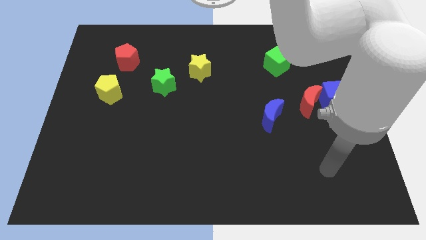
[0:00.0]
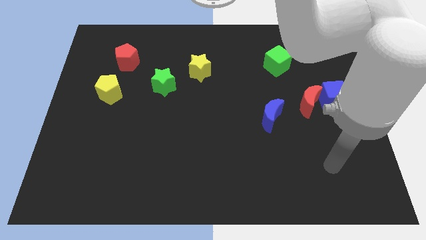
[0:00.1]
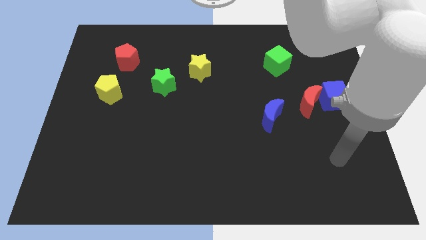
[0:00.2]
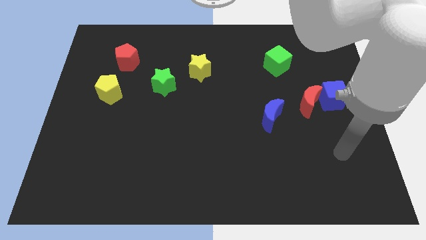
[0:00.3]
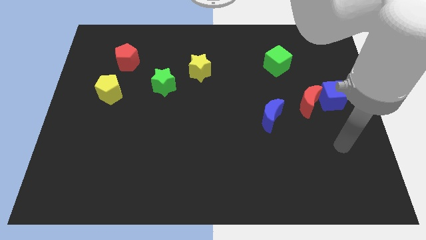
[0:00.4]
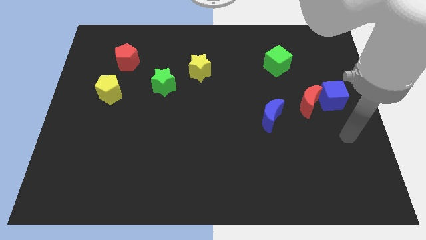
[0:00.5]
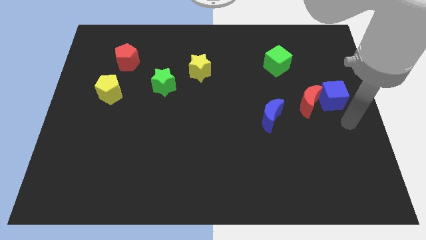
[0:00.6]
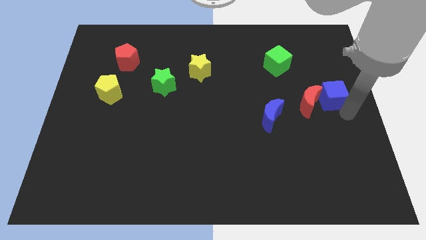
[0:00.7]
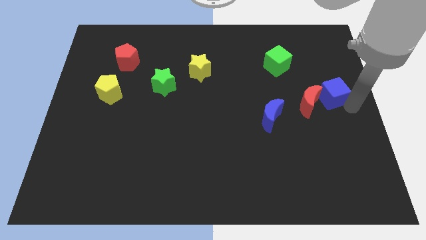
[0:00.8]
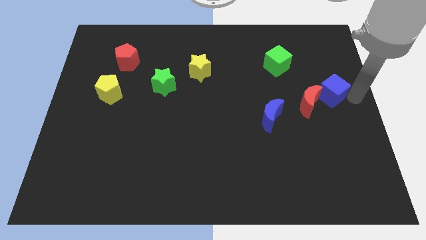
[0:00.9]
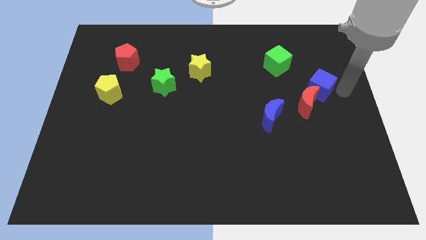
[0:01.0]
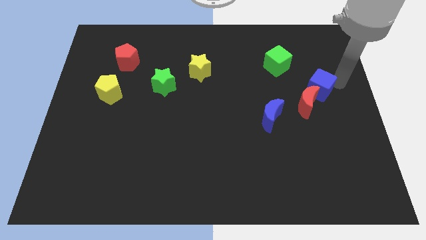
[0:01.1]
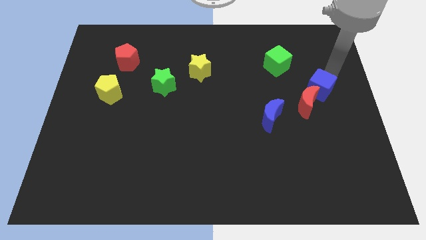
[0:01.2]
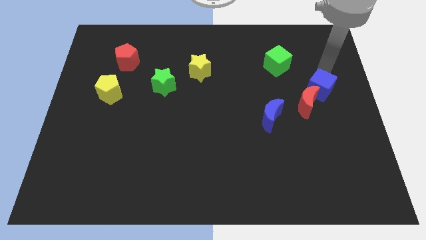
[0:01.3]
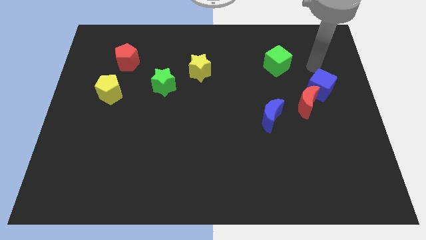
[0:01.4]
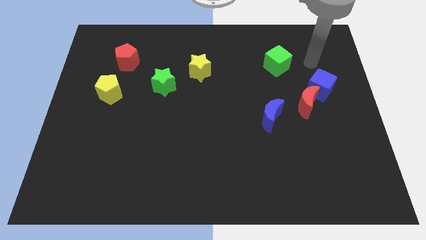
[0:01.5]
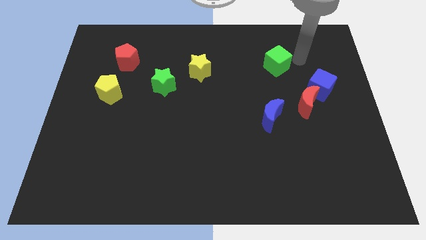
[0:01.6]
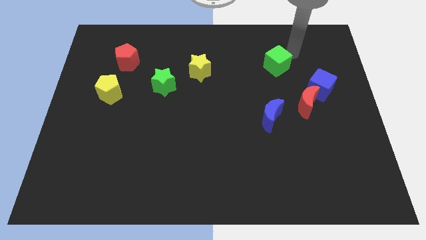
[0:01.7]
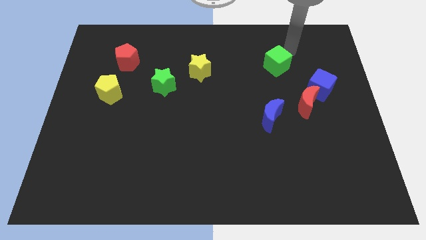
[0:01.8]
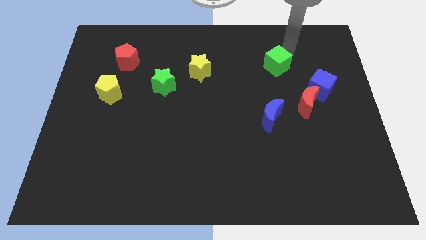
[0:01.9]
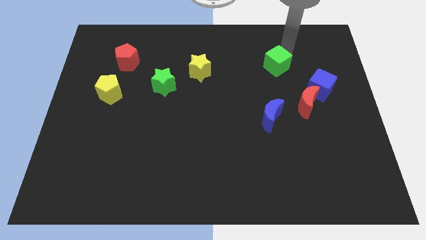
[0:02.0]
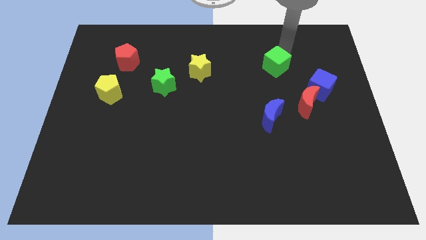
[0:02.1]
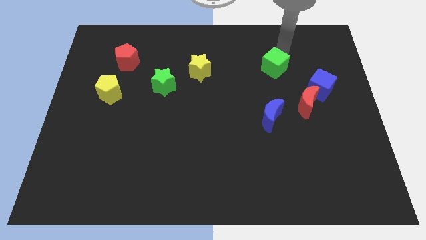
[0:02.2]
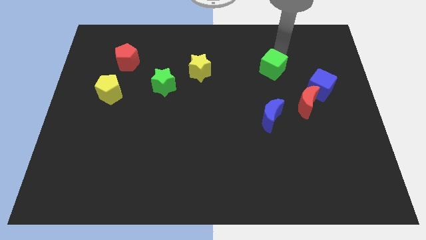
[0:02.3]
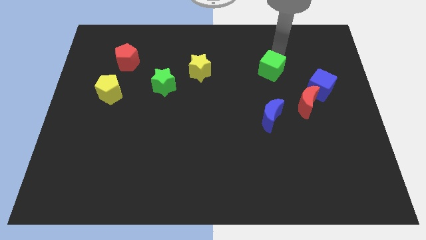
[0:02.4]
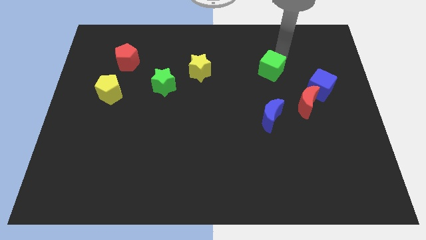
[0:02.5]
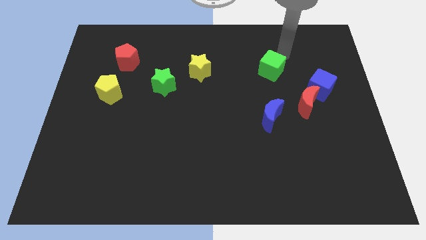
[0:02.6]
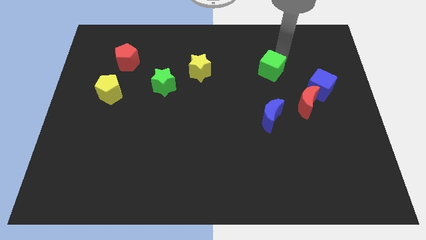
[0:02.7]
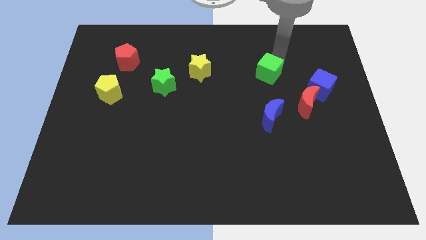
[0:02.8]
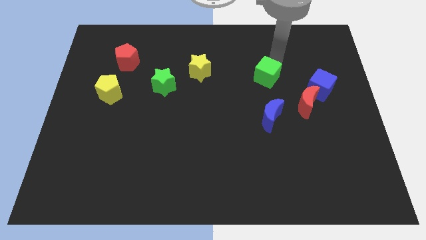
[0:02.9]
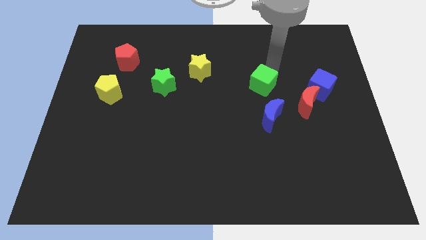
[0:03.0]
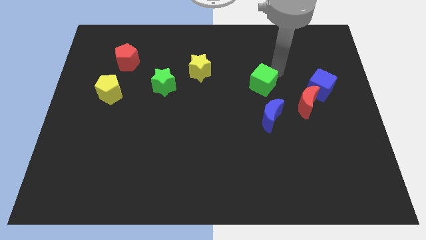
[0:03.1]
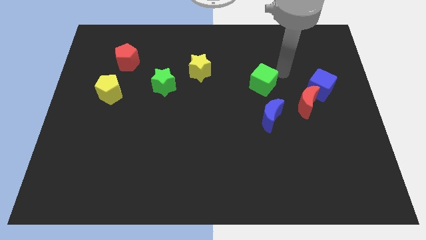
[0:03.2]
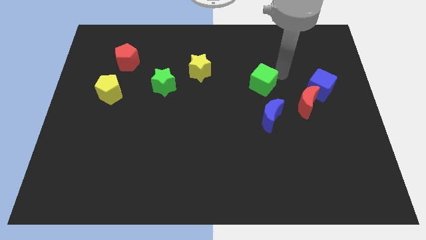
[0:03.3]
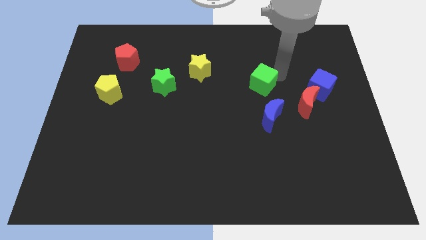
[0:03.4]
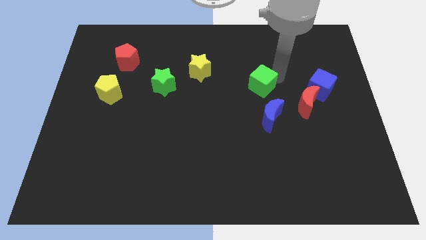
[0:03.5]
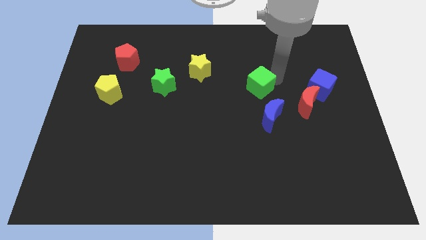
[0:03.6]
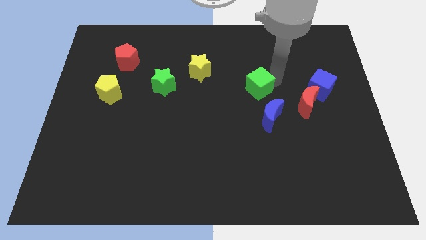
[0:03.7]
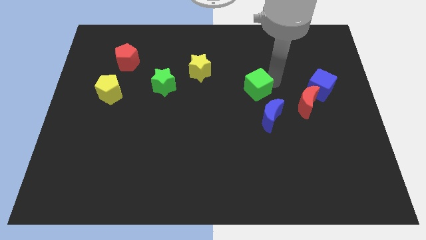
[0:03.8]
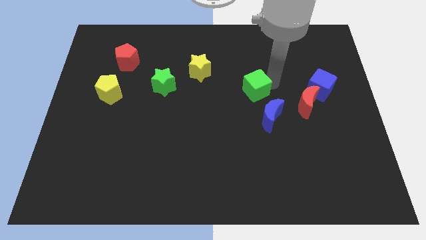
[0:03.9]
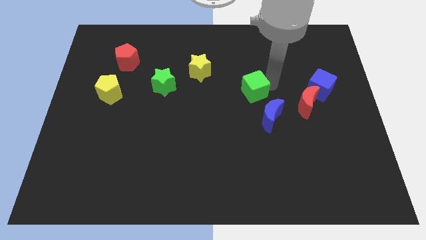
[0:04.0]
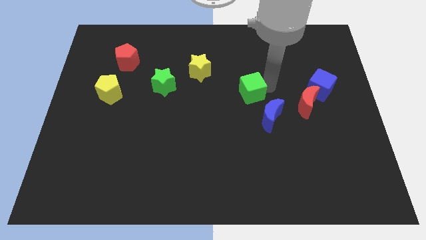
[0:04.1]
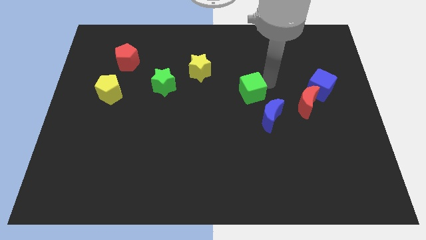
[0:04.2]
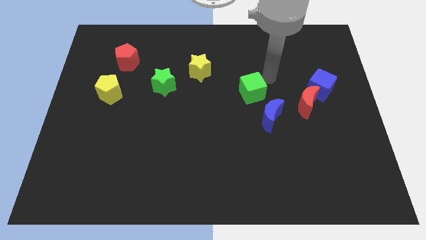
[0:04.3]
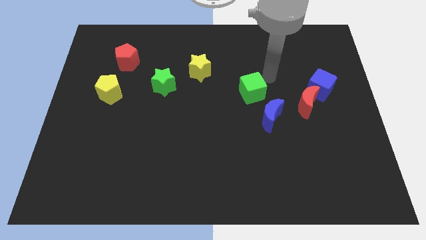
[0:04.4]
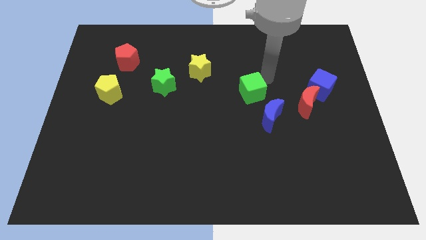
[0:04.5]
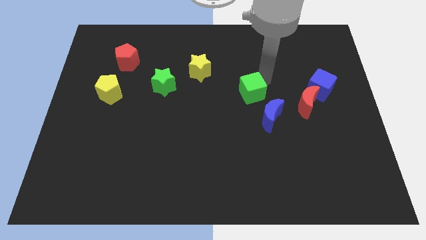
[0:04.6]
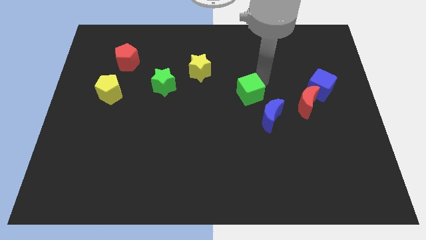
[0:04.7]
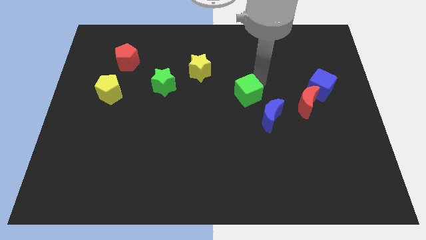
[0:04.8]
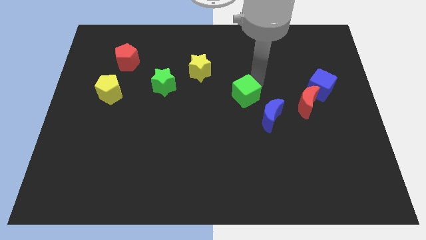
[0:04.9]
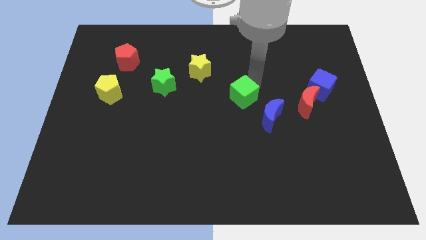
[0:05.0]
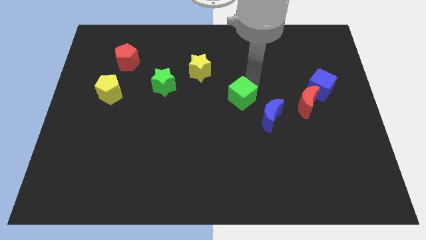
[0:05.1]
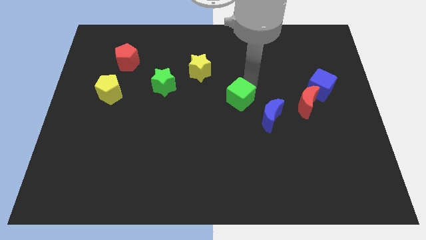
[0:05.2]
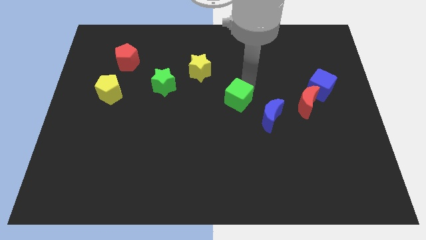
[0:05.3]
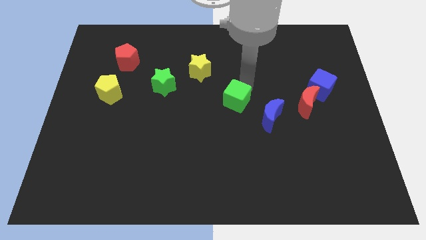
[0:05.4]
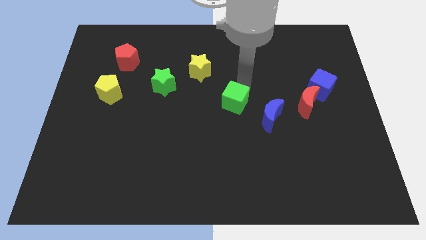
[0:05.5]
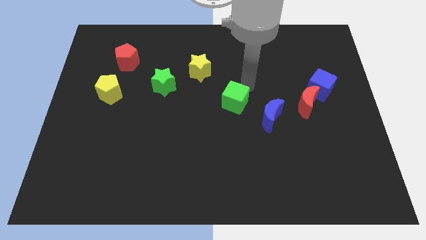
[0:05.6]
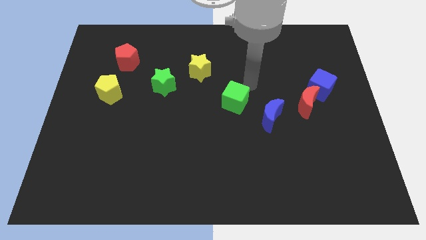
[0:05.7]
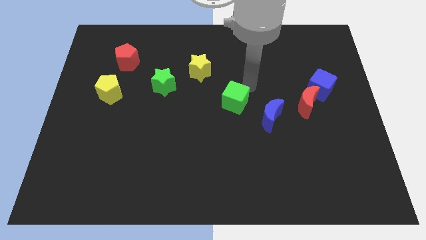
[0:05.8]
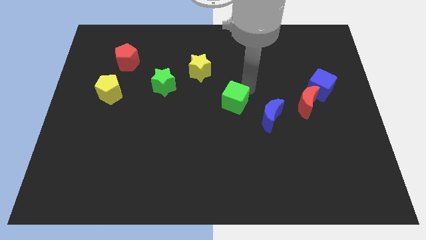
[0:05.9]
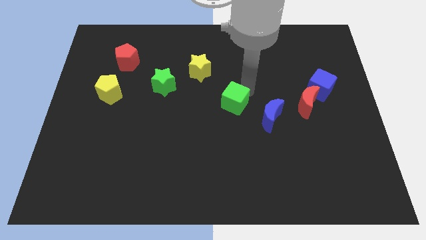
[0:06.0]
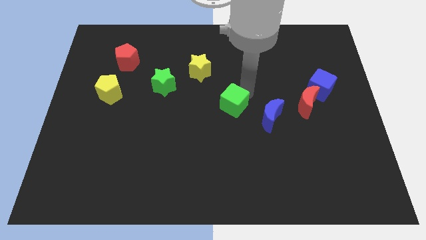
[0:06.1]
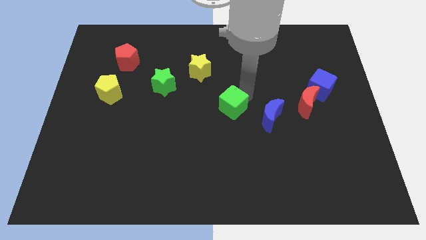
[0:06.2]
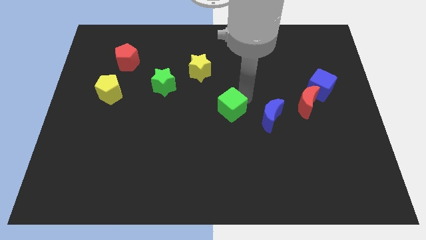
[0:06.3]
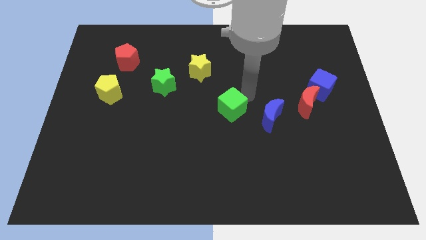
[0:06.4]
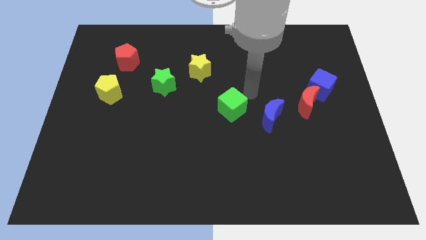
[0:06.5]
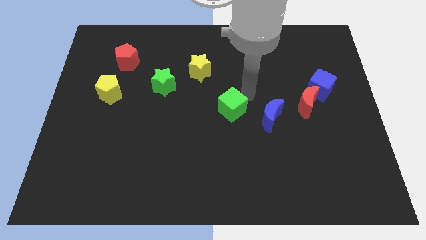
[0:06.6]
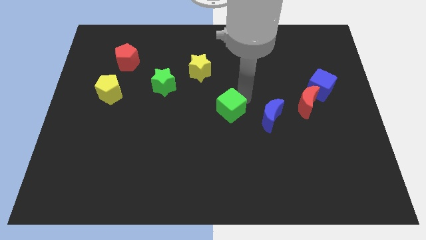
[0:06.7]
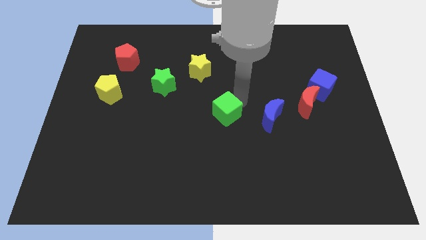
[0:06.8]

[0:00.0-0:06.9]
slide the green cube downwards and left diagonally

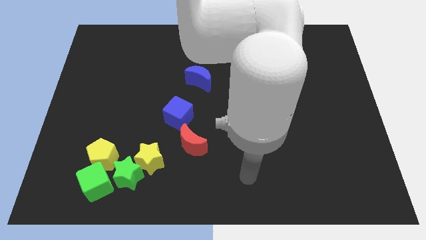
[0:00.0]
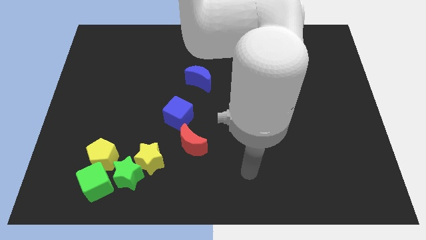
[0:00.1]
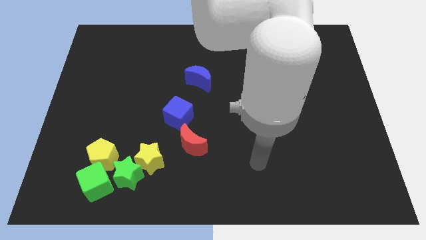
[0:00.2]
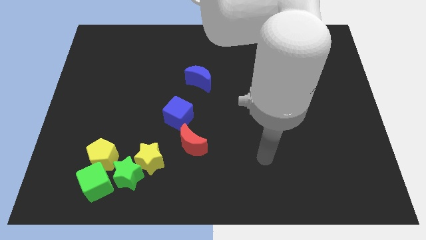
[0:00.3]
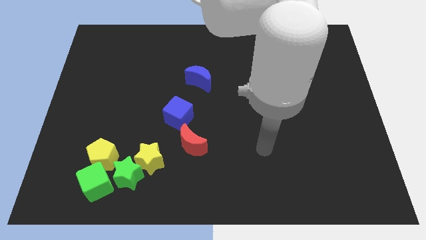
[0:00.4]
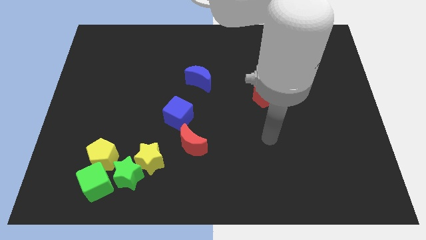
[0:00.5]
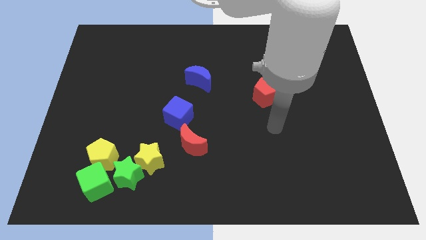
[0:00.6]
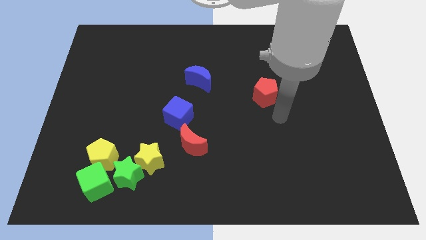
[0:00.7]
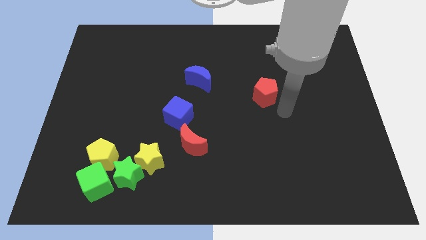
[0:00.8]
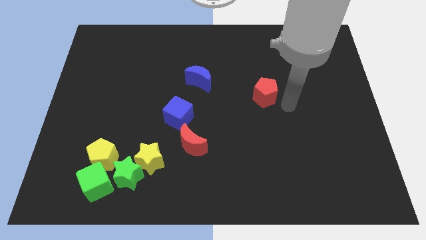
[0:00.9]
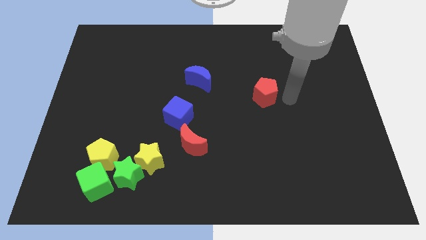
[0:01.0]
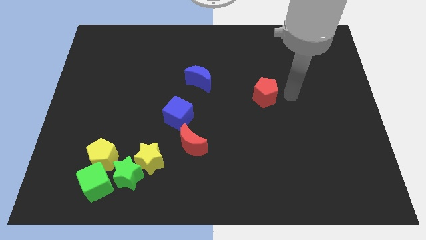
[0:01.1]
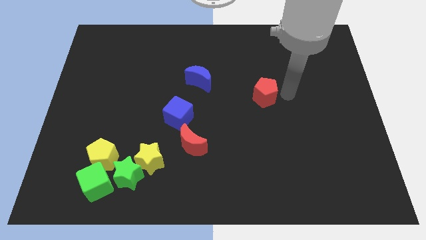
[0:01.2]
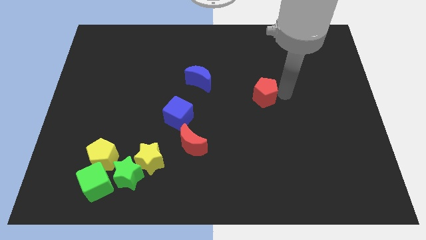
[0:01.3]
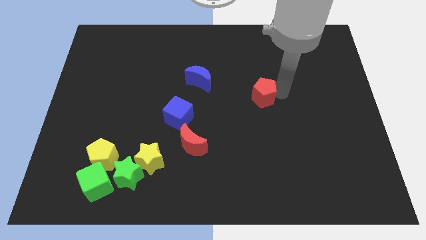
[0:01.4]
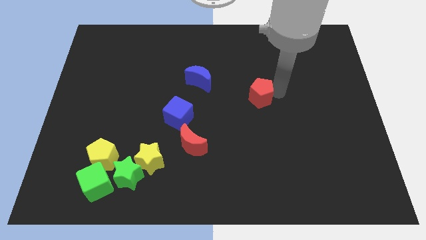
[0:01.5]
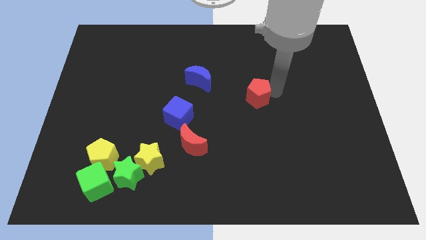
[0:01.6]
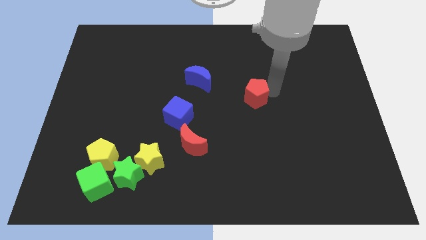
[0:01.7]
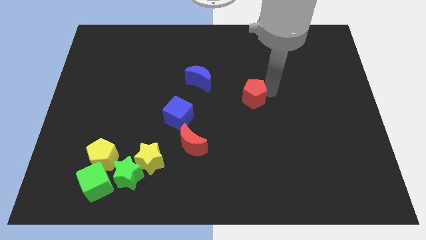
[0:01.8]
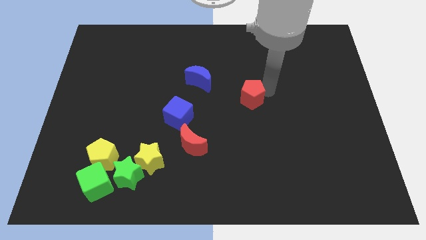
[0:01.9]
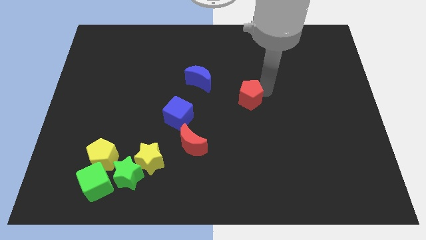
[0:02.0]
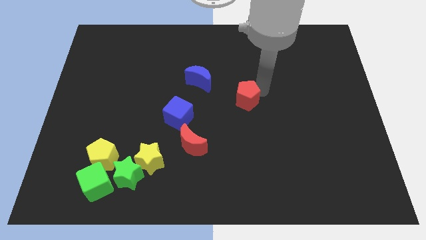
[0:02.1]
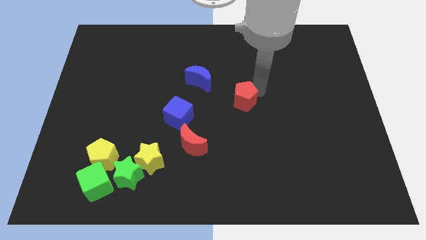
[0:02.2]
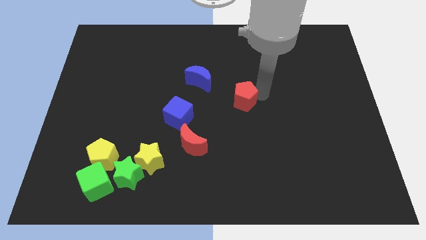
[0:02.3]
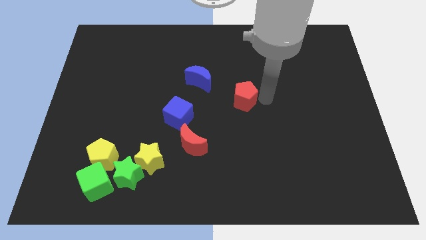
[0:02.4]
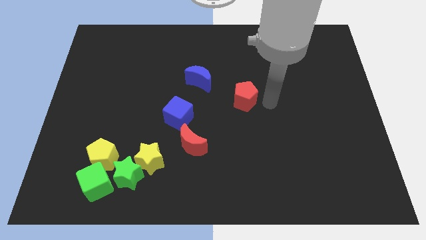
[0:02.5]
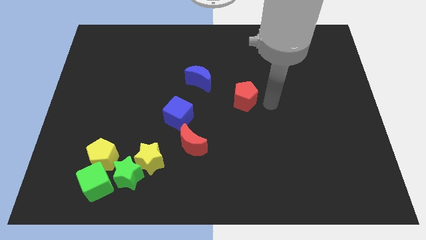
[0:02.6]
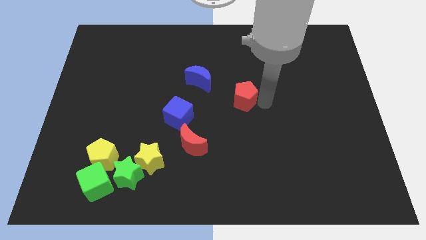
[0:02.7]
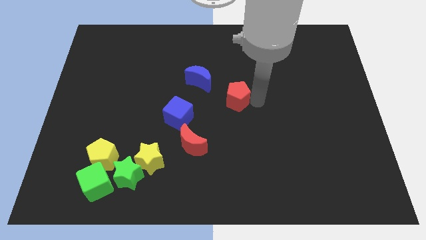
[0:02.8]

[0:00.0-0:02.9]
push the red pentagon a little bit left
